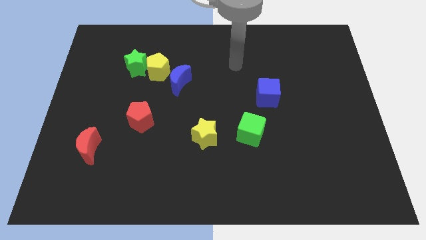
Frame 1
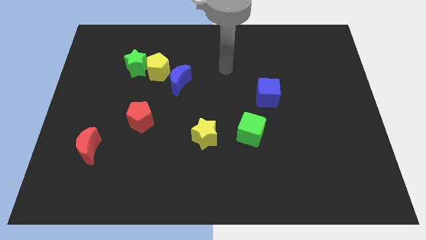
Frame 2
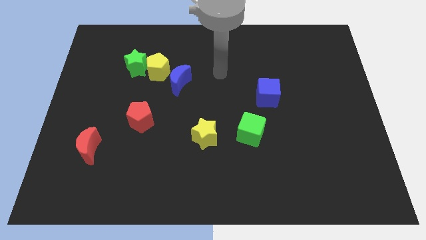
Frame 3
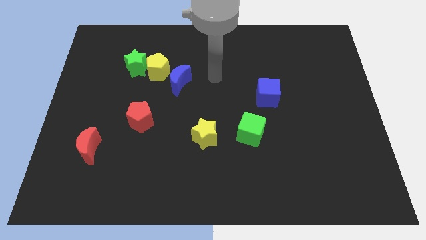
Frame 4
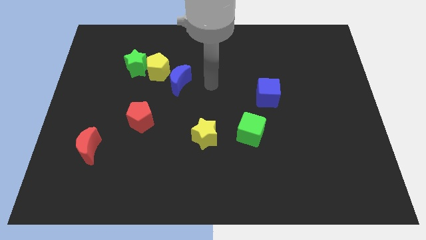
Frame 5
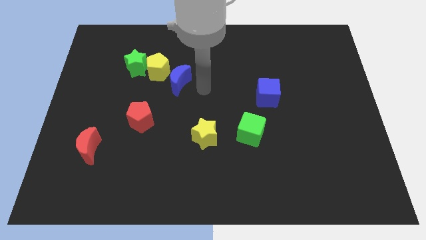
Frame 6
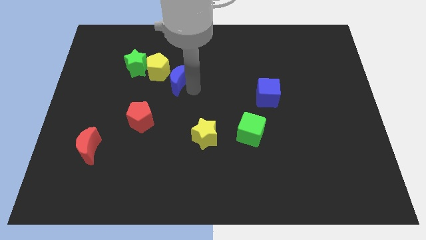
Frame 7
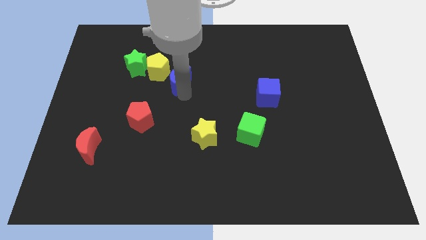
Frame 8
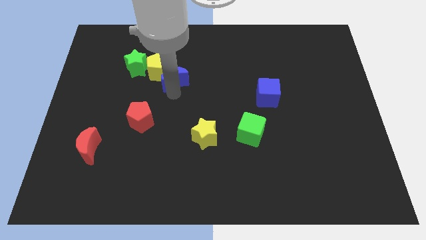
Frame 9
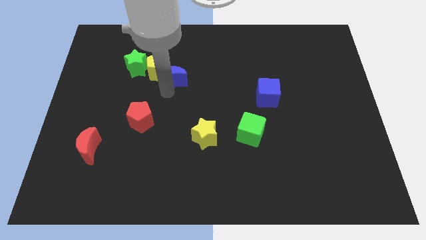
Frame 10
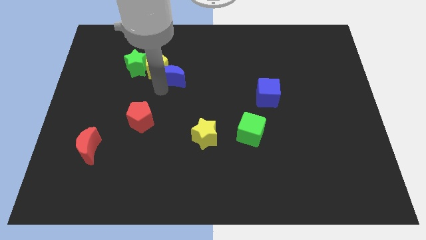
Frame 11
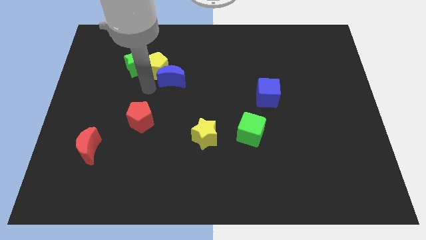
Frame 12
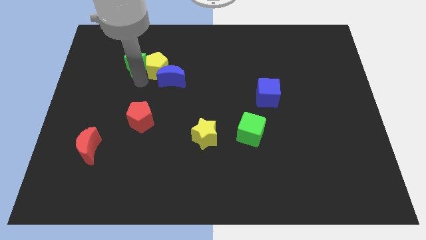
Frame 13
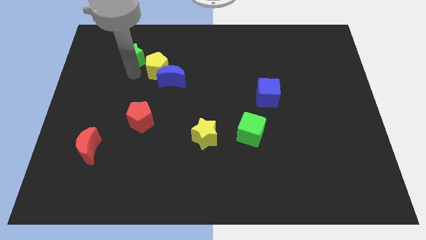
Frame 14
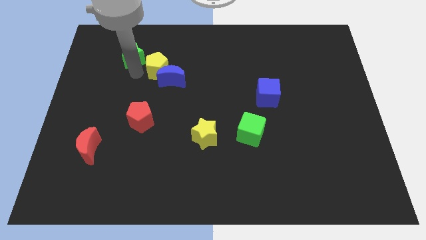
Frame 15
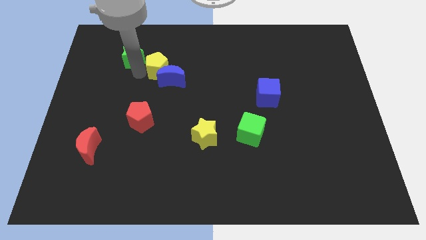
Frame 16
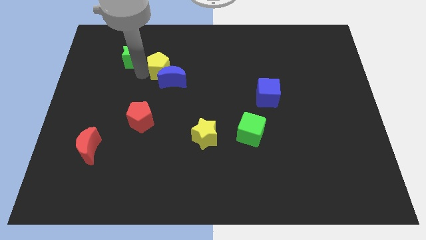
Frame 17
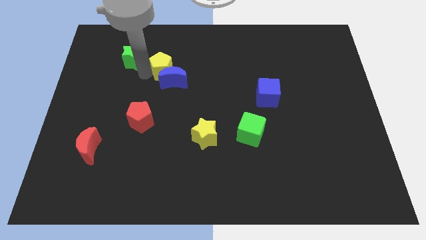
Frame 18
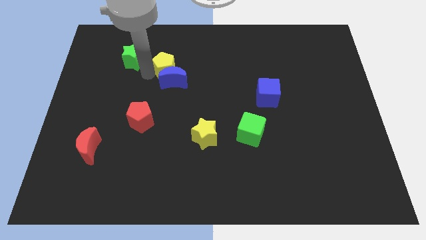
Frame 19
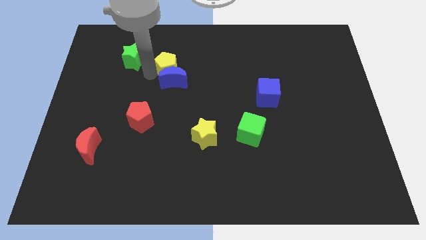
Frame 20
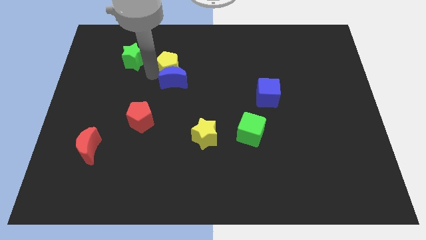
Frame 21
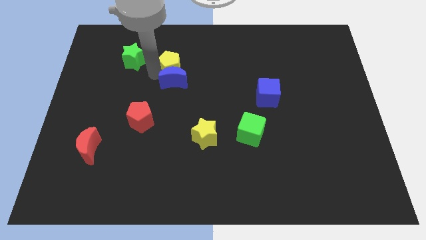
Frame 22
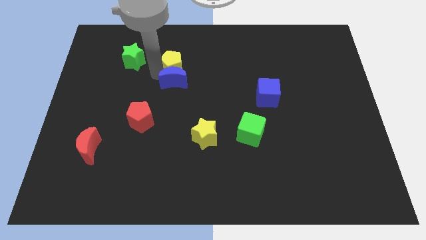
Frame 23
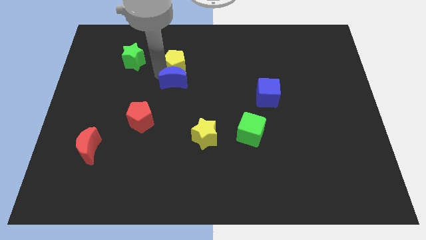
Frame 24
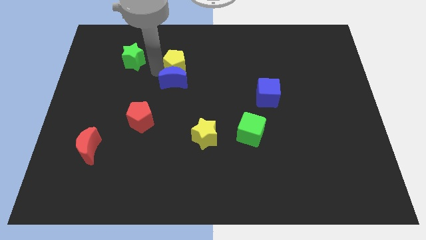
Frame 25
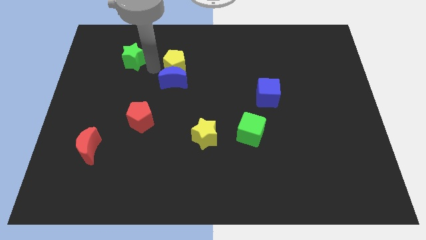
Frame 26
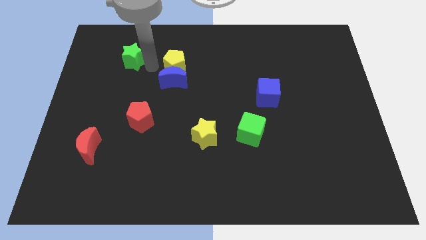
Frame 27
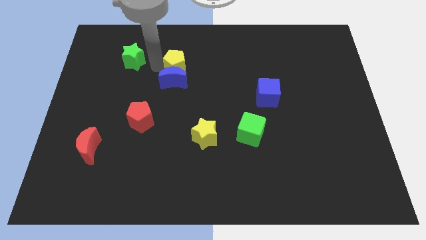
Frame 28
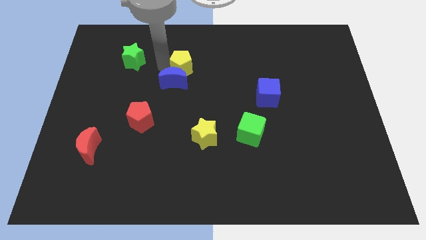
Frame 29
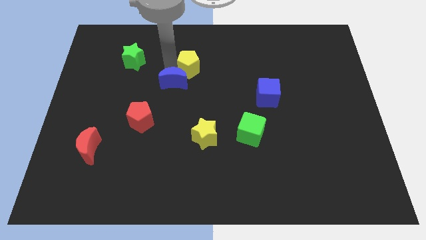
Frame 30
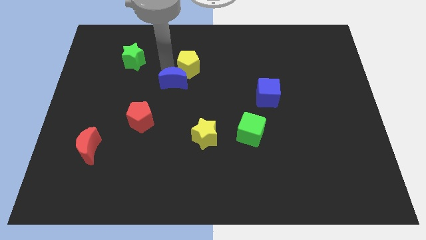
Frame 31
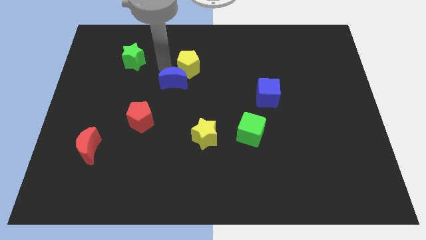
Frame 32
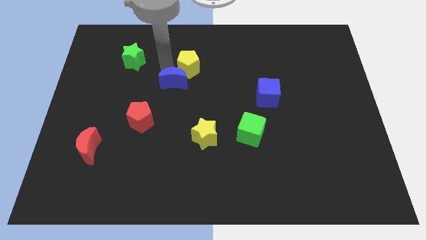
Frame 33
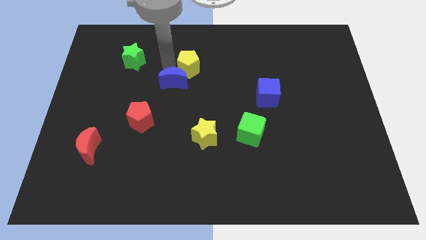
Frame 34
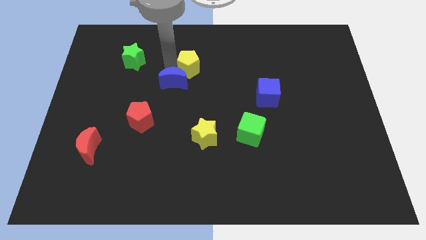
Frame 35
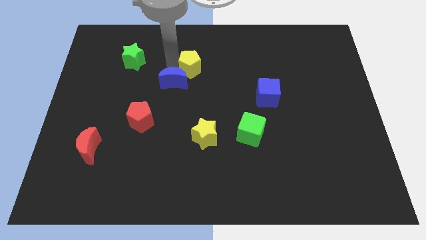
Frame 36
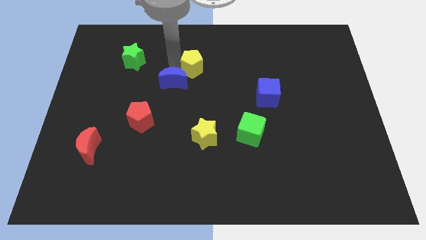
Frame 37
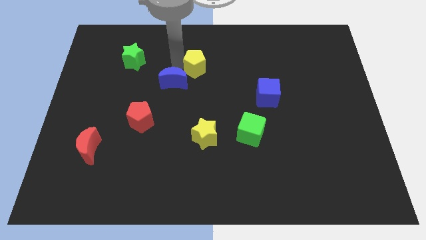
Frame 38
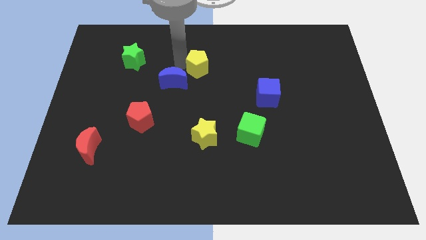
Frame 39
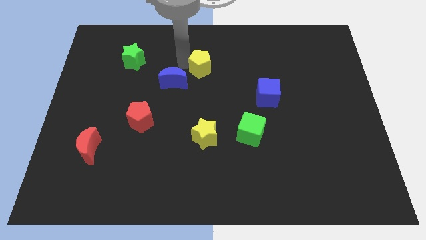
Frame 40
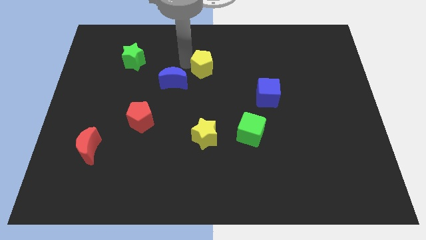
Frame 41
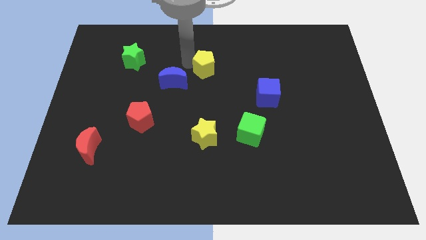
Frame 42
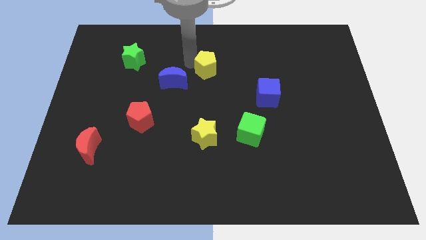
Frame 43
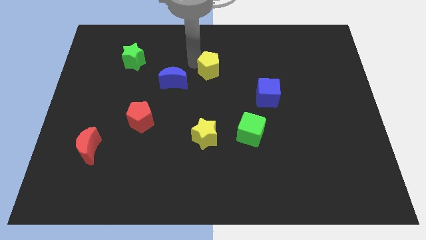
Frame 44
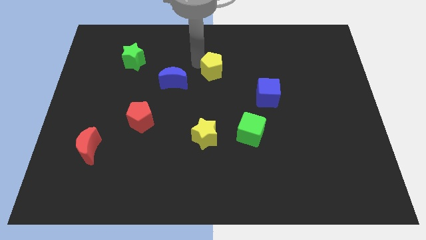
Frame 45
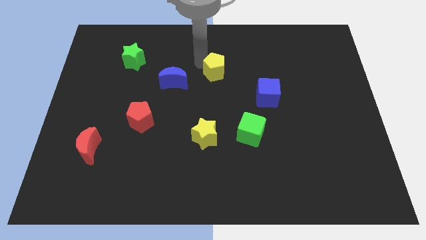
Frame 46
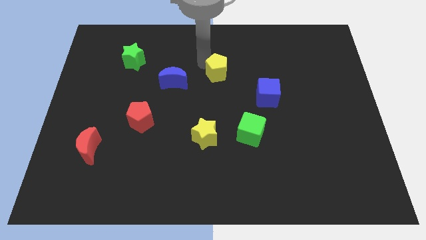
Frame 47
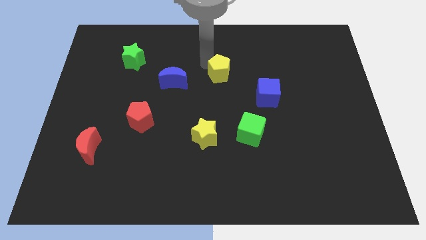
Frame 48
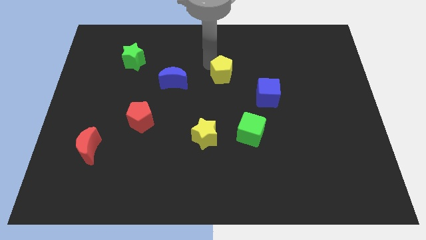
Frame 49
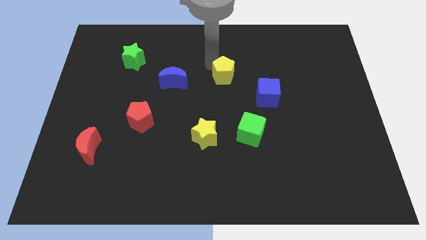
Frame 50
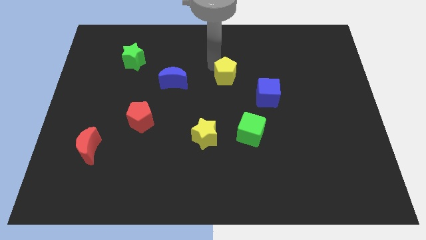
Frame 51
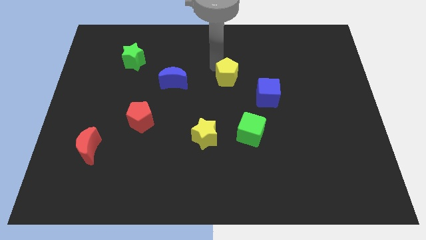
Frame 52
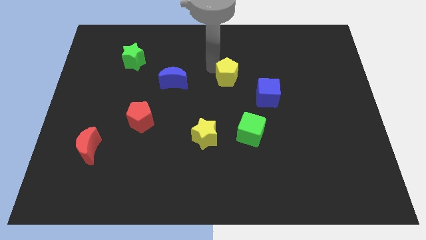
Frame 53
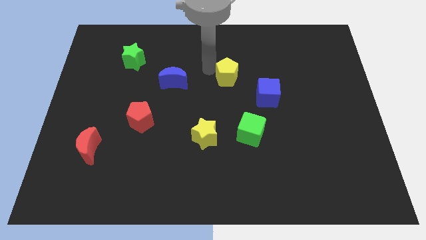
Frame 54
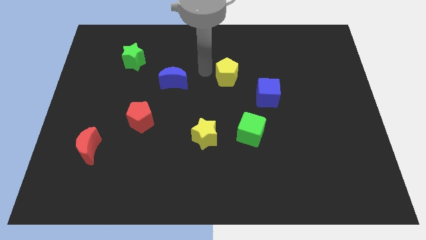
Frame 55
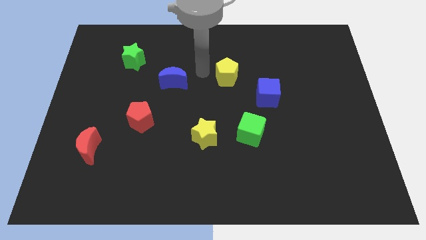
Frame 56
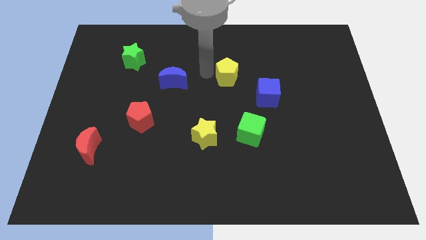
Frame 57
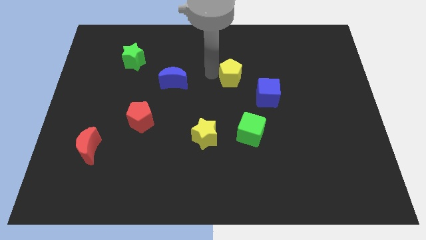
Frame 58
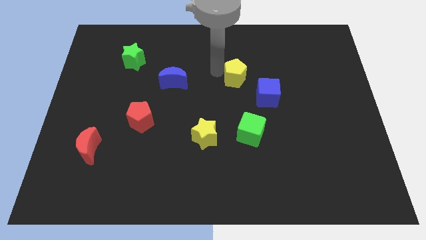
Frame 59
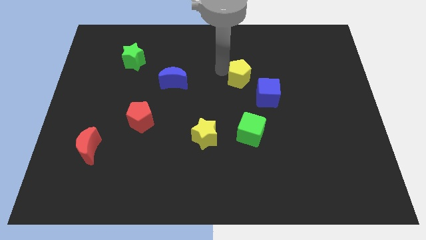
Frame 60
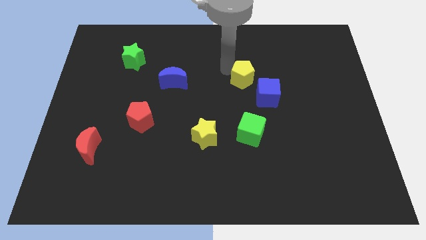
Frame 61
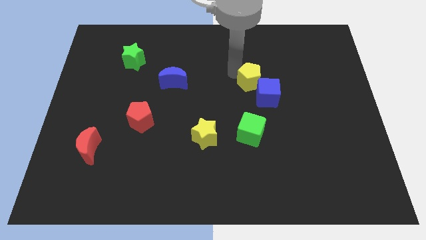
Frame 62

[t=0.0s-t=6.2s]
move the yellow pentagon next to the blue cube

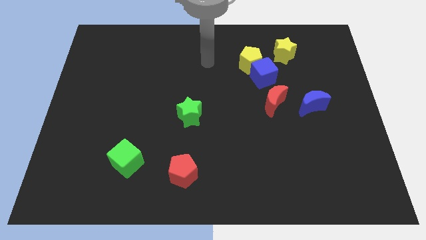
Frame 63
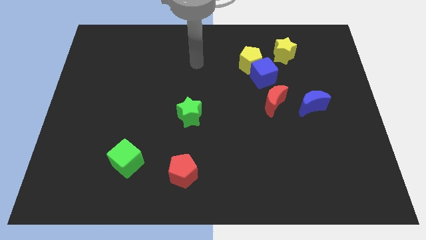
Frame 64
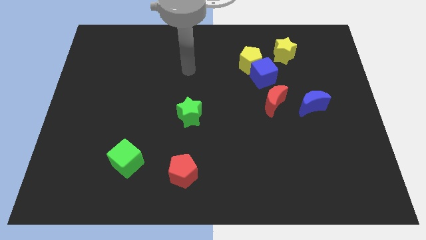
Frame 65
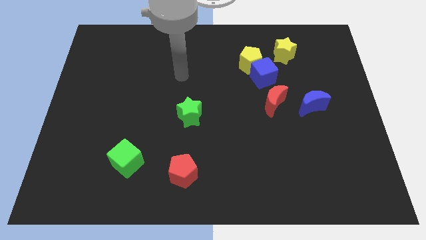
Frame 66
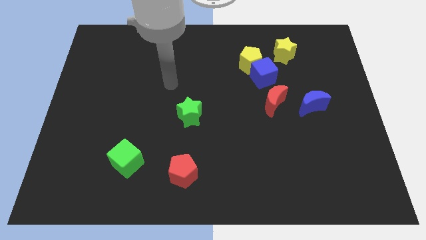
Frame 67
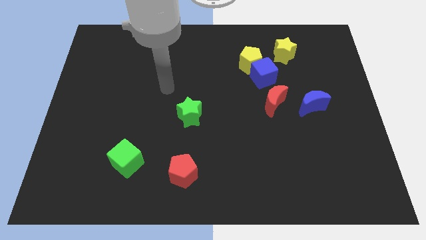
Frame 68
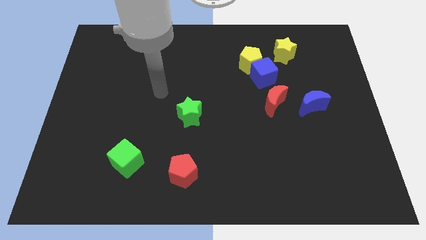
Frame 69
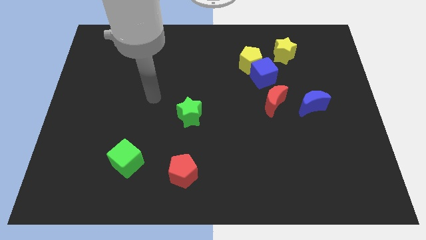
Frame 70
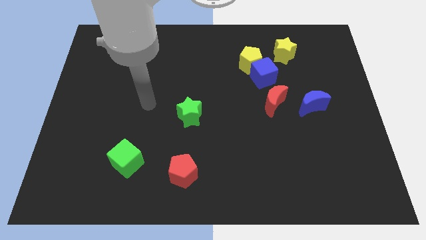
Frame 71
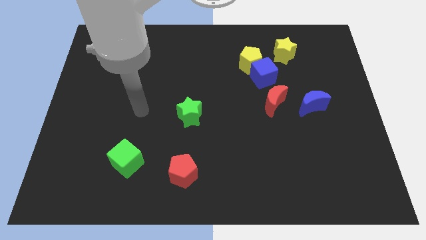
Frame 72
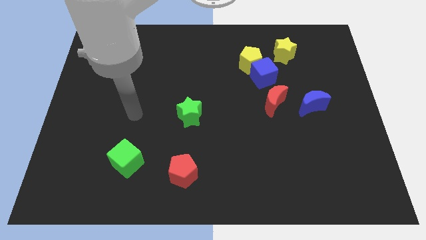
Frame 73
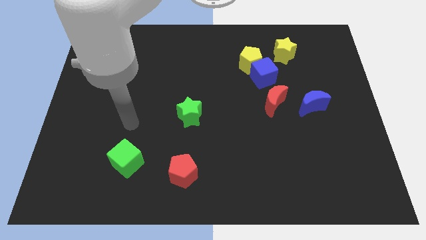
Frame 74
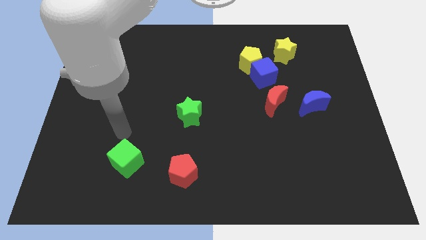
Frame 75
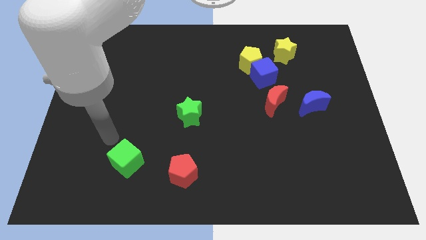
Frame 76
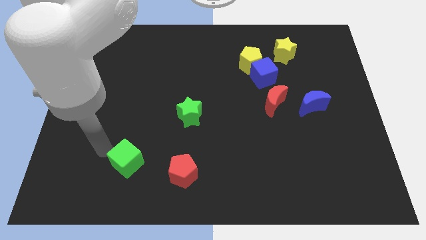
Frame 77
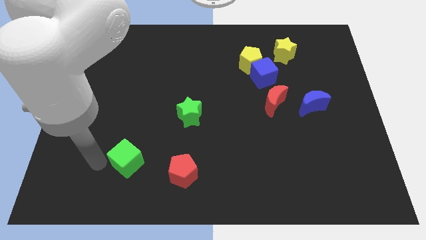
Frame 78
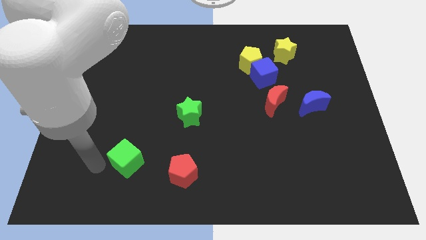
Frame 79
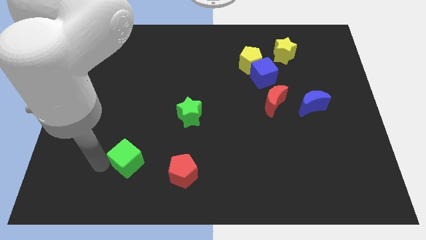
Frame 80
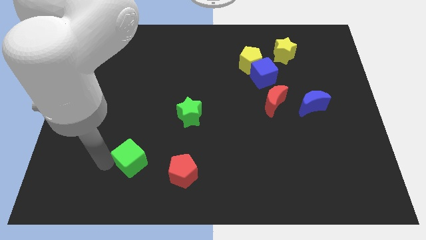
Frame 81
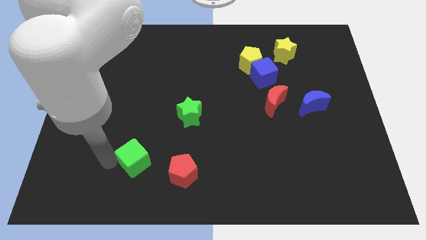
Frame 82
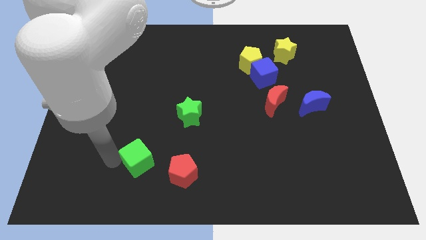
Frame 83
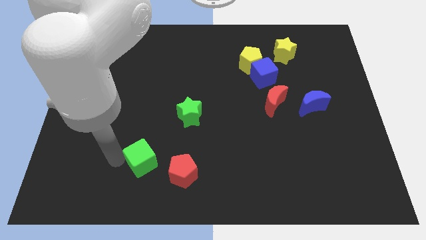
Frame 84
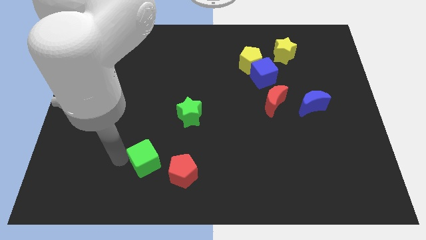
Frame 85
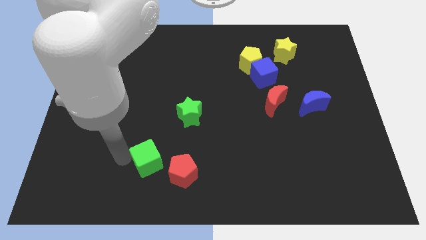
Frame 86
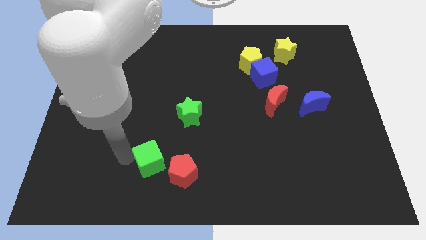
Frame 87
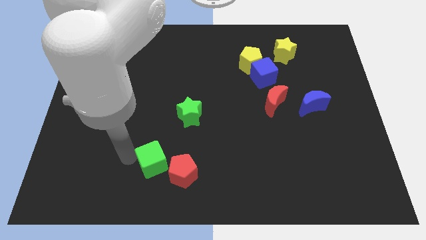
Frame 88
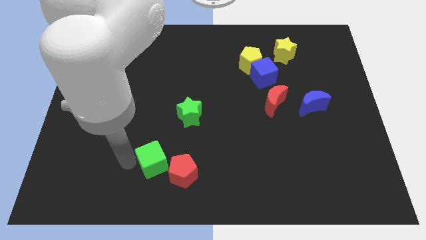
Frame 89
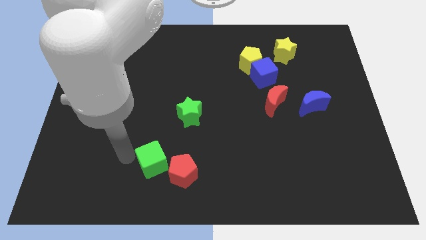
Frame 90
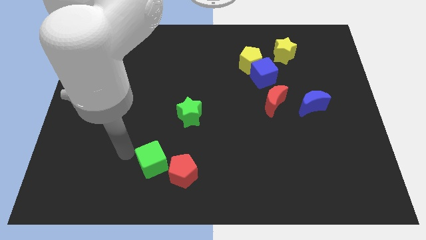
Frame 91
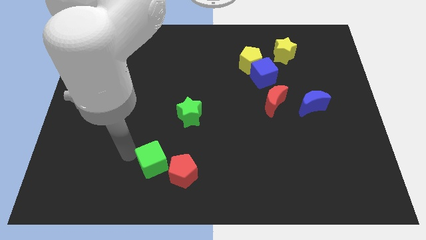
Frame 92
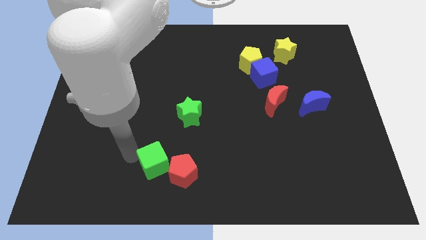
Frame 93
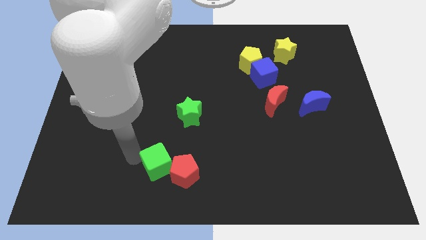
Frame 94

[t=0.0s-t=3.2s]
push the green cube next to the red pentagon
